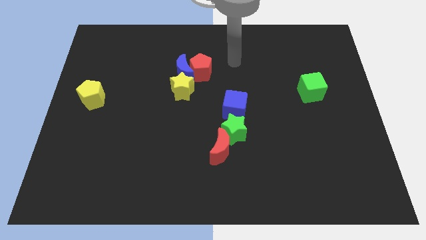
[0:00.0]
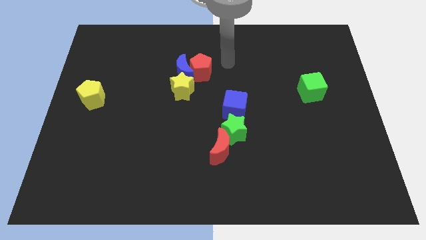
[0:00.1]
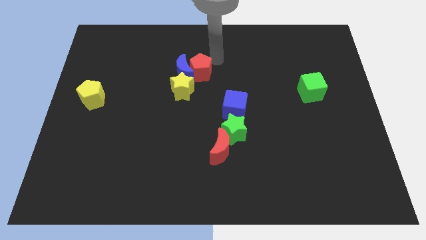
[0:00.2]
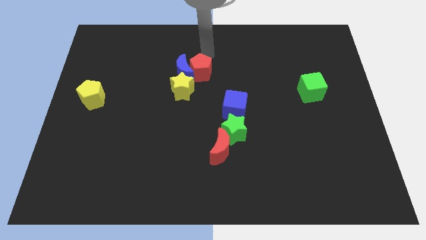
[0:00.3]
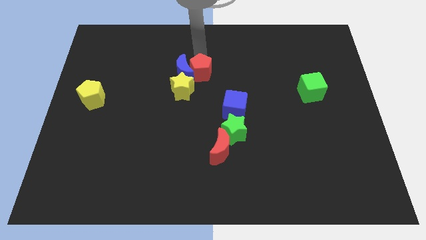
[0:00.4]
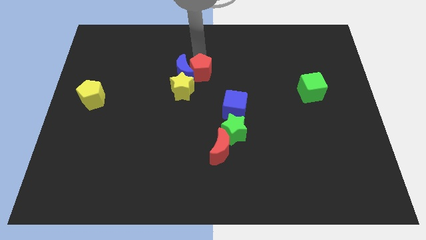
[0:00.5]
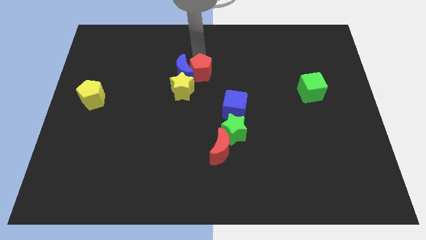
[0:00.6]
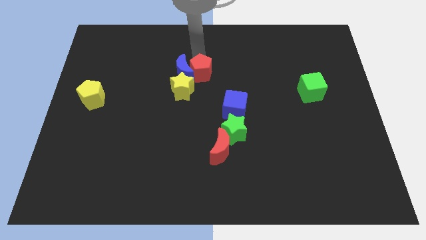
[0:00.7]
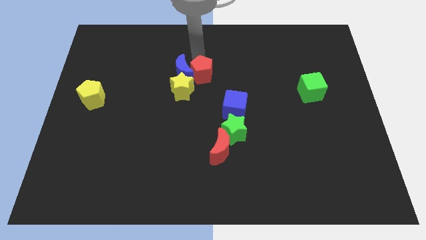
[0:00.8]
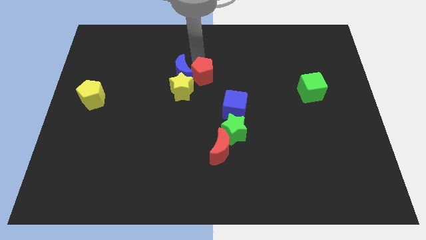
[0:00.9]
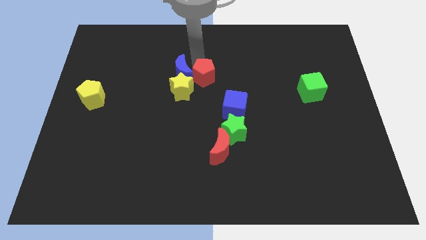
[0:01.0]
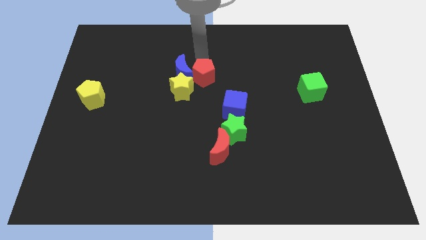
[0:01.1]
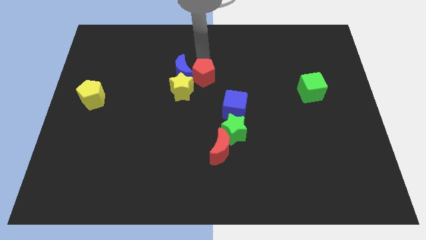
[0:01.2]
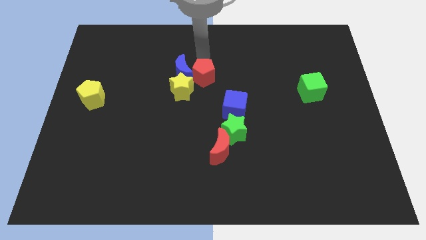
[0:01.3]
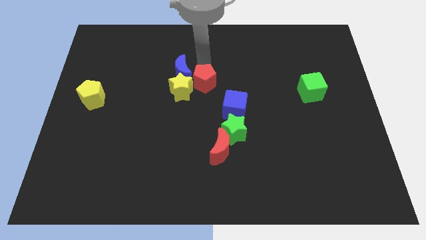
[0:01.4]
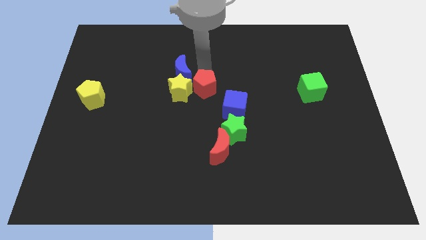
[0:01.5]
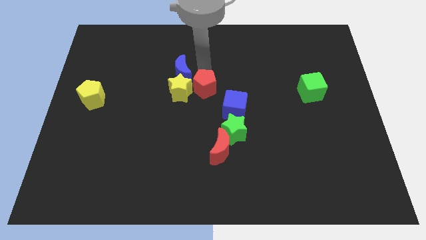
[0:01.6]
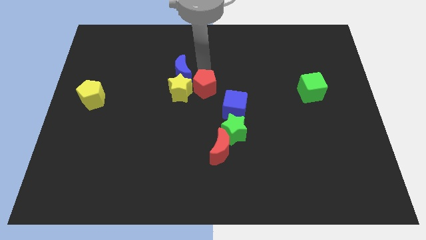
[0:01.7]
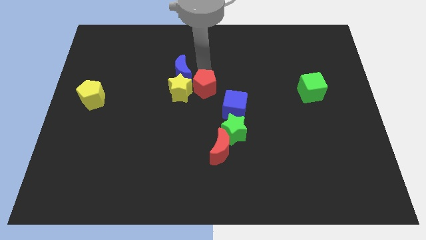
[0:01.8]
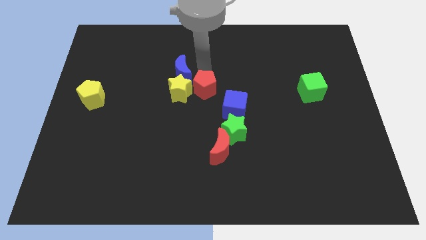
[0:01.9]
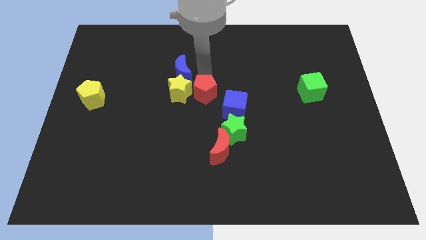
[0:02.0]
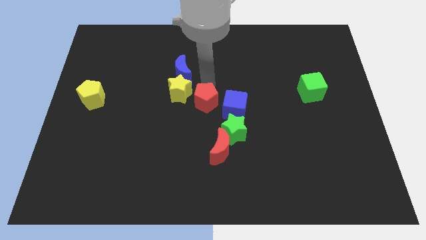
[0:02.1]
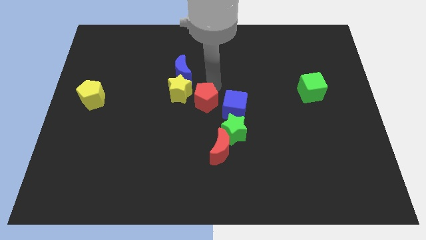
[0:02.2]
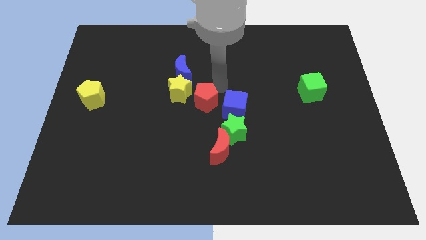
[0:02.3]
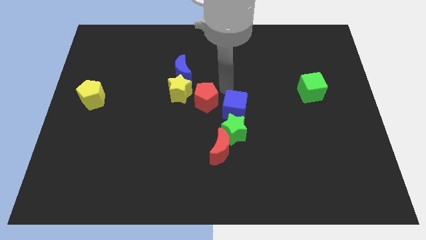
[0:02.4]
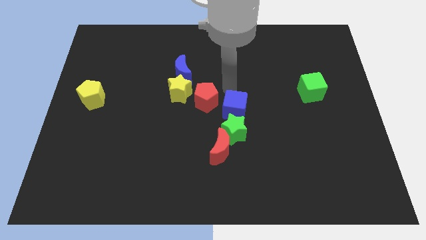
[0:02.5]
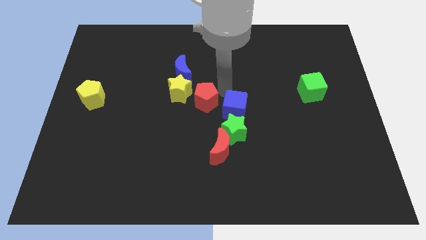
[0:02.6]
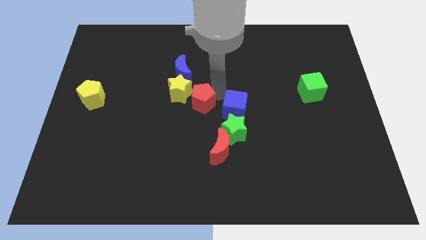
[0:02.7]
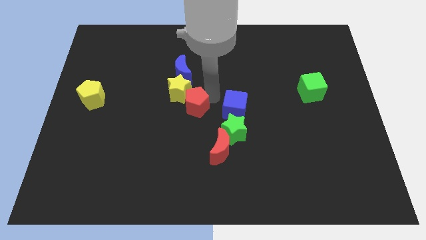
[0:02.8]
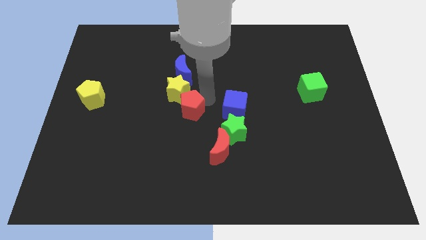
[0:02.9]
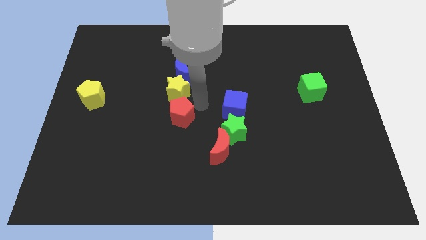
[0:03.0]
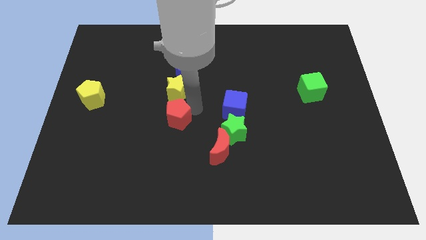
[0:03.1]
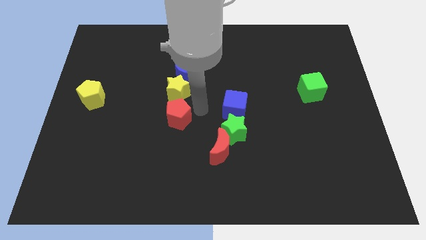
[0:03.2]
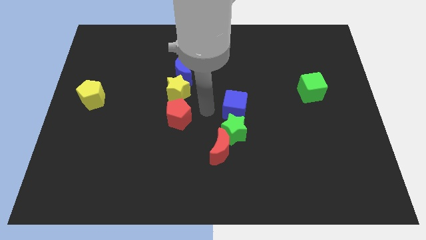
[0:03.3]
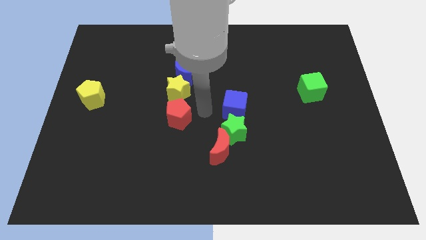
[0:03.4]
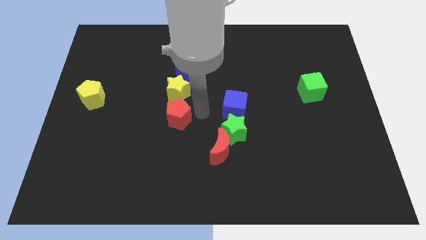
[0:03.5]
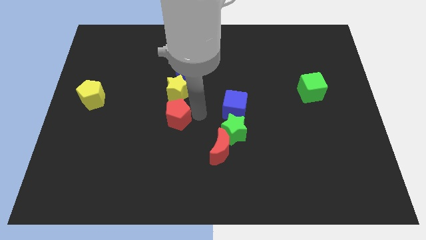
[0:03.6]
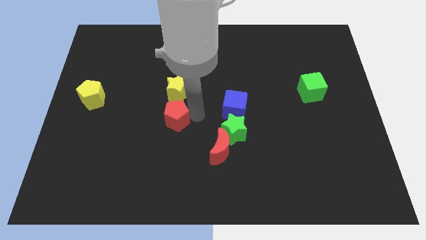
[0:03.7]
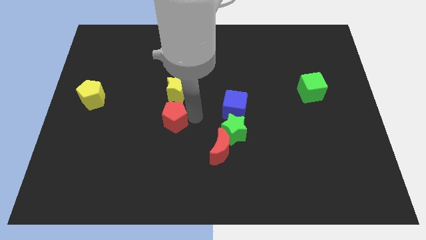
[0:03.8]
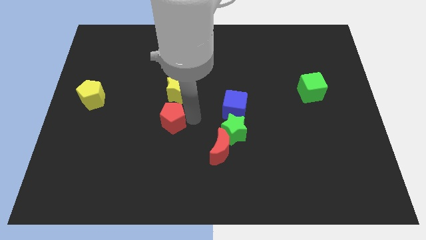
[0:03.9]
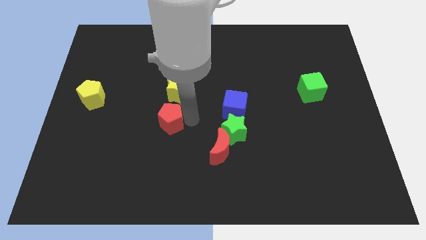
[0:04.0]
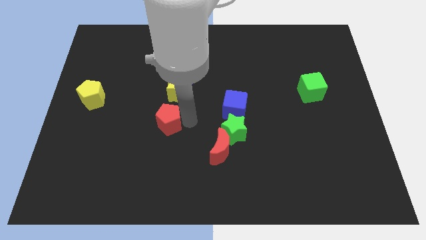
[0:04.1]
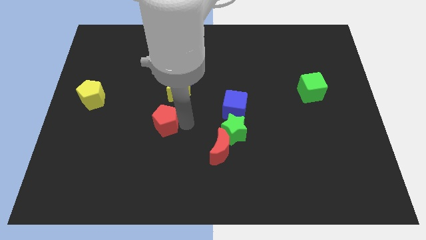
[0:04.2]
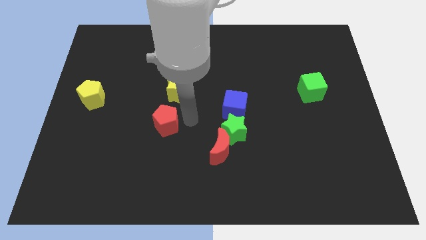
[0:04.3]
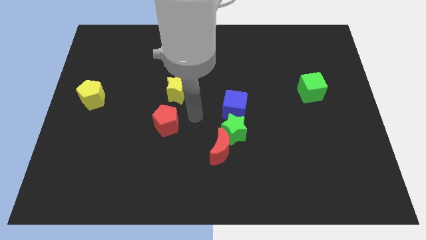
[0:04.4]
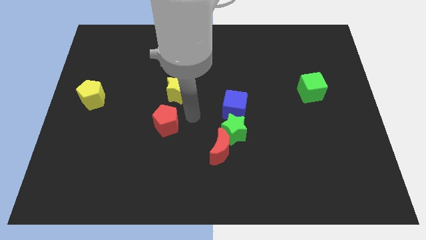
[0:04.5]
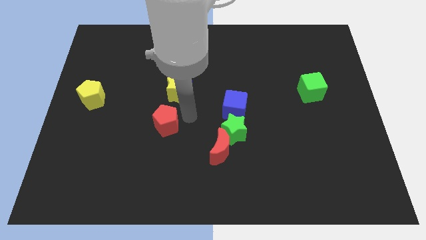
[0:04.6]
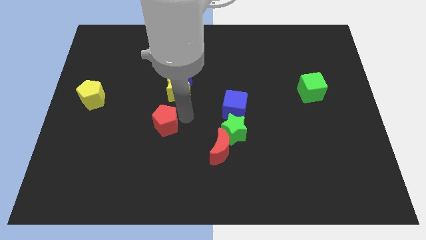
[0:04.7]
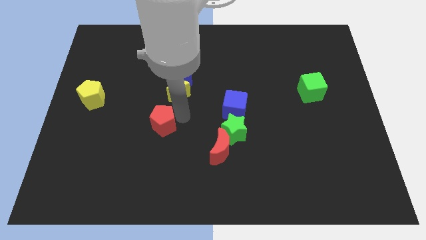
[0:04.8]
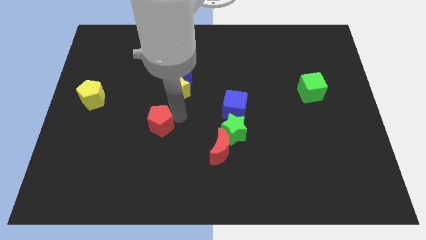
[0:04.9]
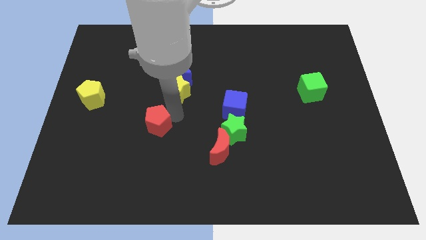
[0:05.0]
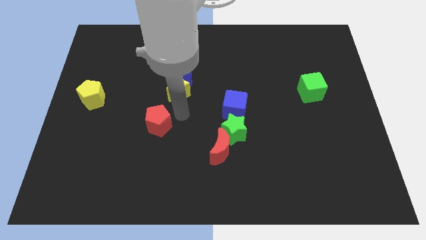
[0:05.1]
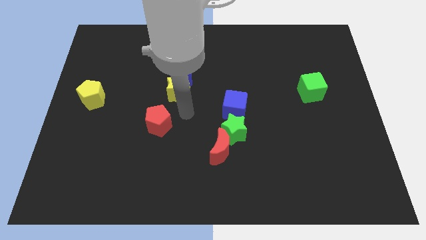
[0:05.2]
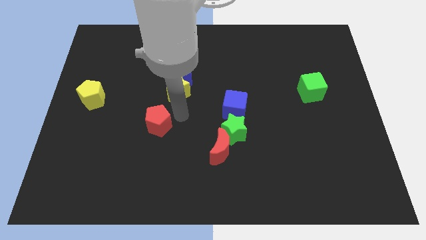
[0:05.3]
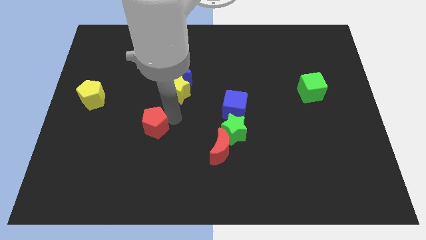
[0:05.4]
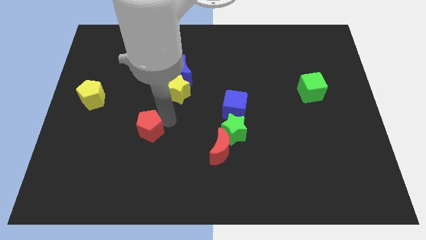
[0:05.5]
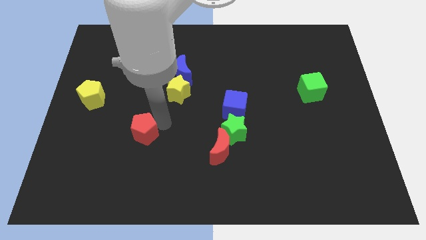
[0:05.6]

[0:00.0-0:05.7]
slide the red pentagon downwards and left

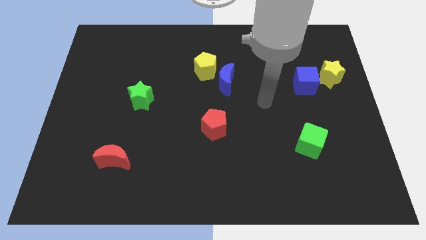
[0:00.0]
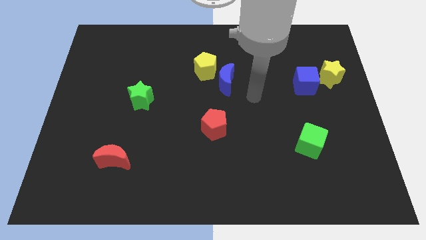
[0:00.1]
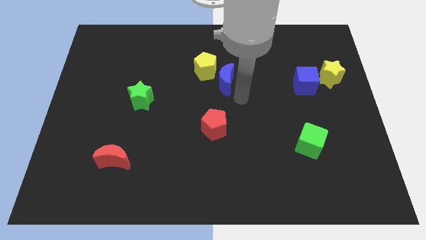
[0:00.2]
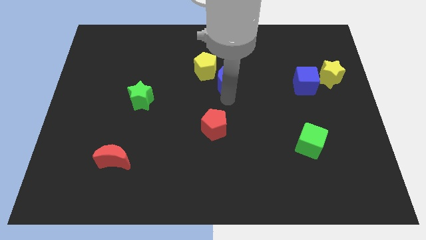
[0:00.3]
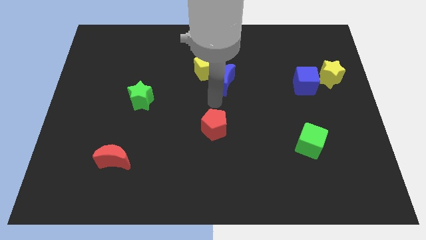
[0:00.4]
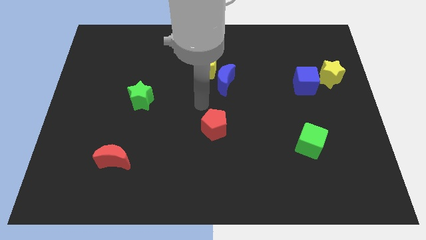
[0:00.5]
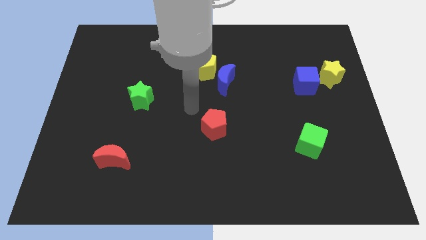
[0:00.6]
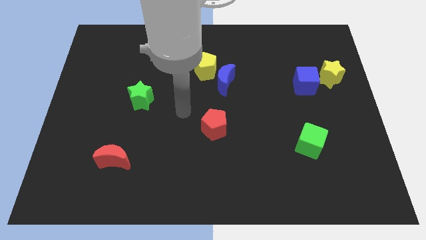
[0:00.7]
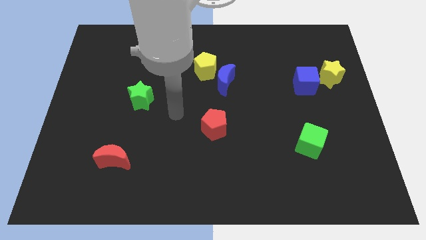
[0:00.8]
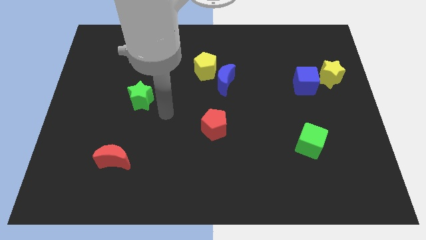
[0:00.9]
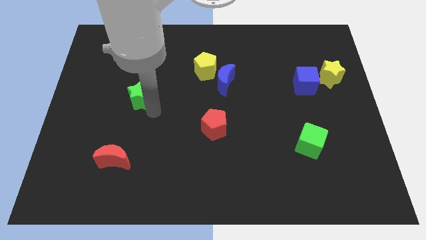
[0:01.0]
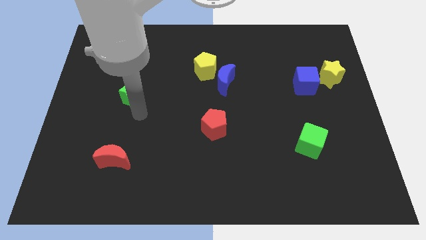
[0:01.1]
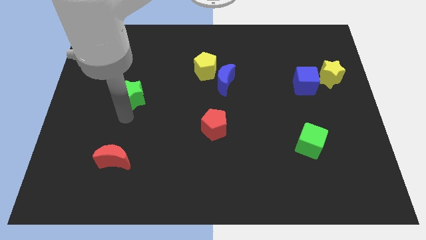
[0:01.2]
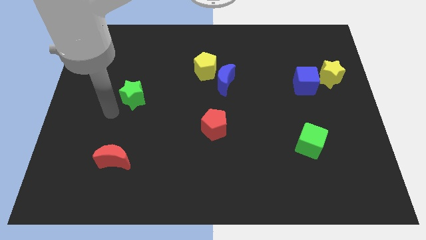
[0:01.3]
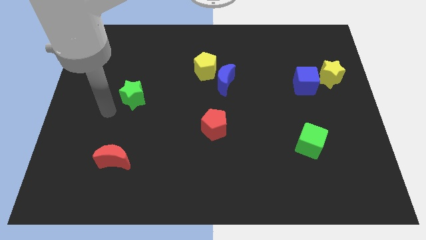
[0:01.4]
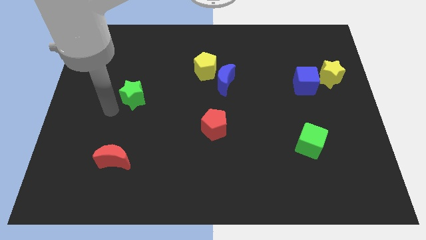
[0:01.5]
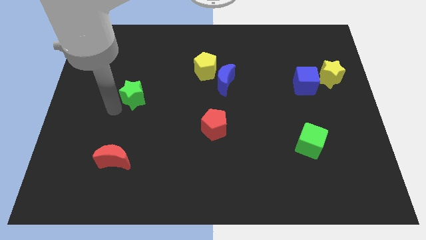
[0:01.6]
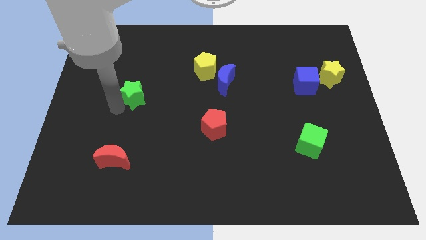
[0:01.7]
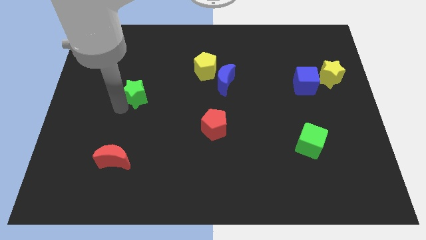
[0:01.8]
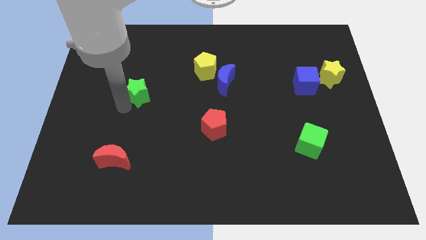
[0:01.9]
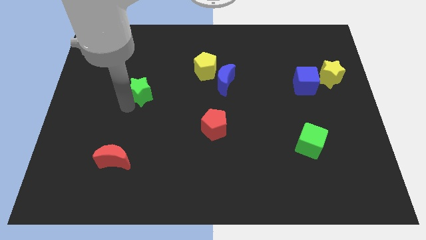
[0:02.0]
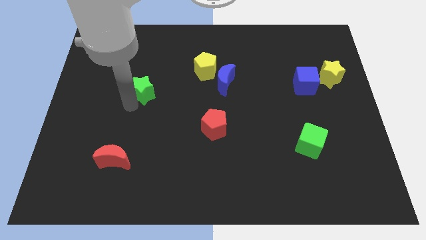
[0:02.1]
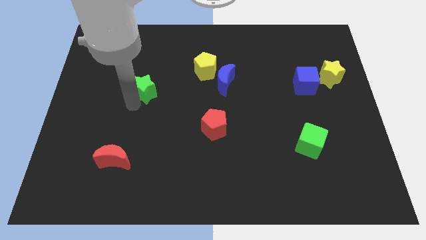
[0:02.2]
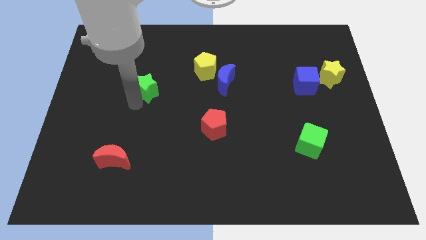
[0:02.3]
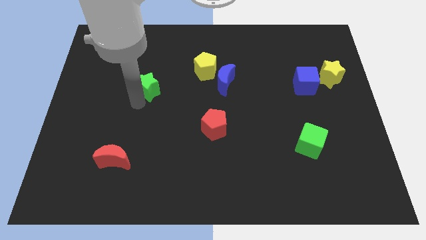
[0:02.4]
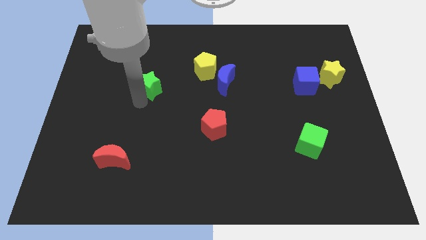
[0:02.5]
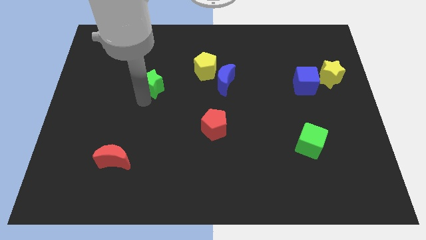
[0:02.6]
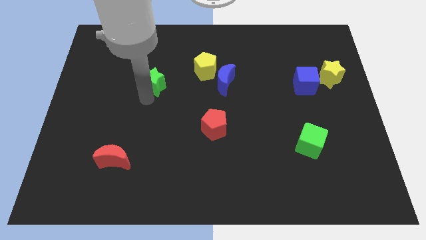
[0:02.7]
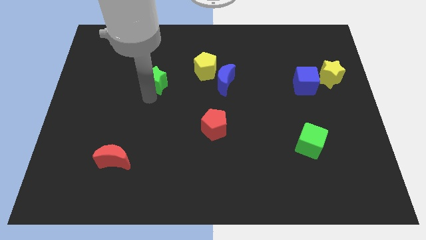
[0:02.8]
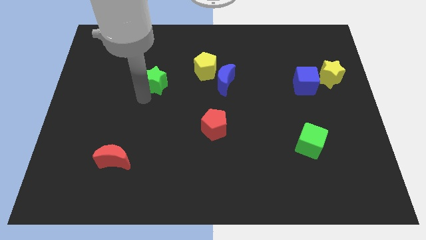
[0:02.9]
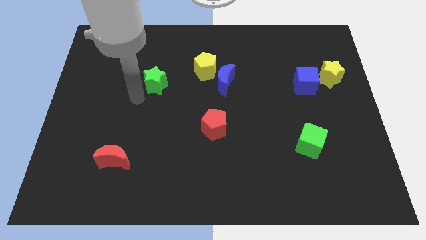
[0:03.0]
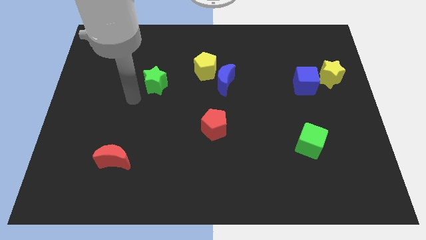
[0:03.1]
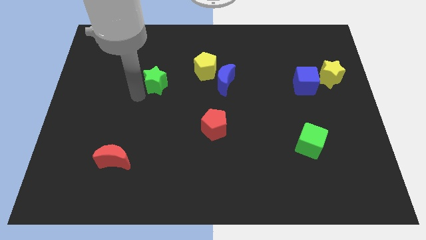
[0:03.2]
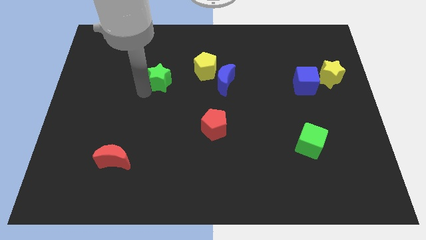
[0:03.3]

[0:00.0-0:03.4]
move the green star up and to the right diagonally a little bit
